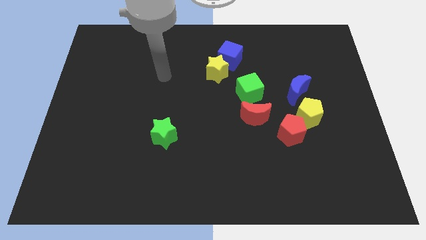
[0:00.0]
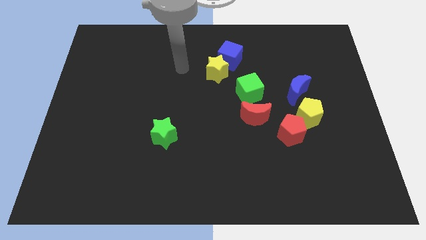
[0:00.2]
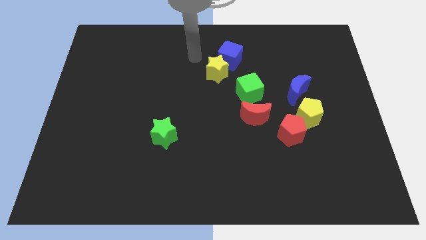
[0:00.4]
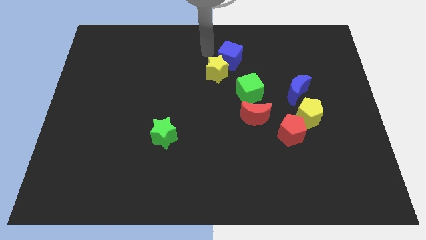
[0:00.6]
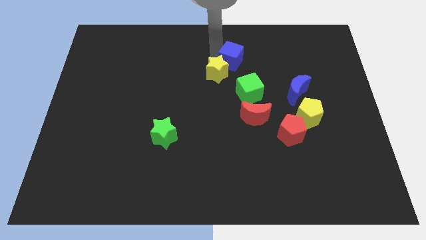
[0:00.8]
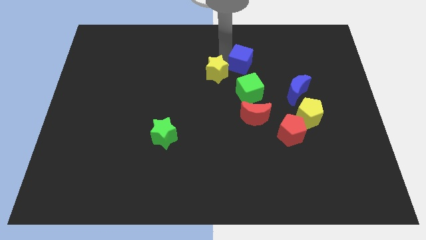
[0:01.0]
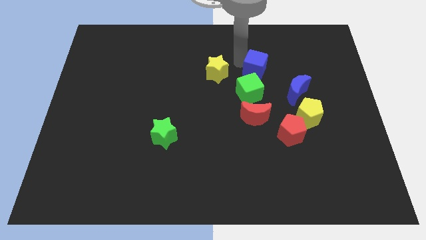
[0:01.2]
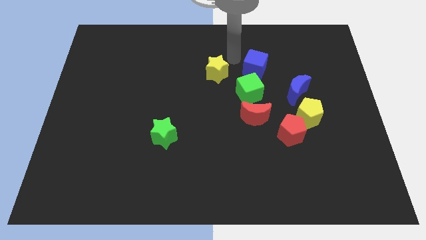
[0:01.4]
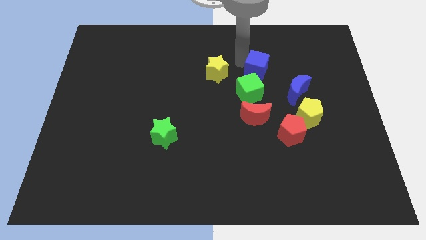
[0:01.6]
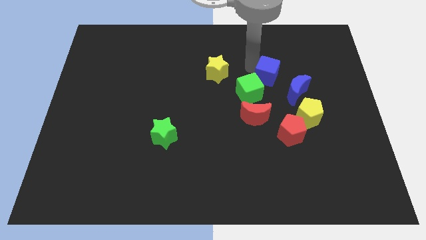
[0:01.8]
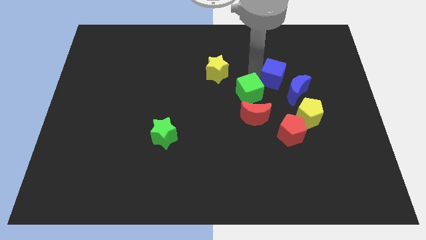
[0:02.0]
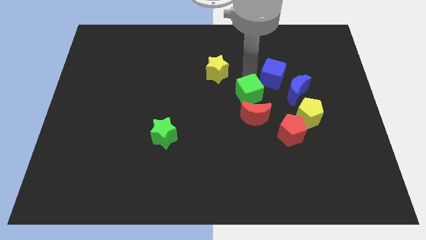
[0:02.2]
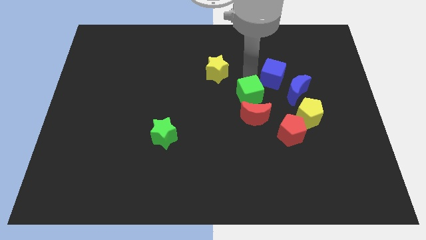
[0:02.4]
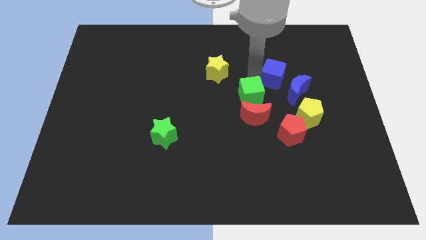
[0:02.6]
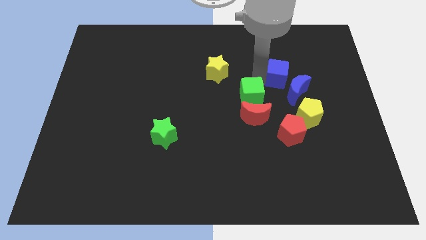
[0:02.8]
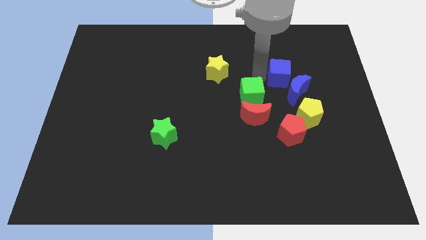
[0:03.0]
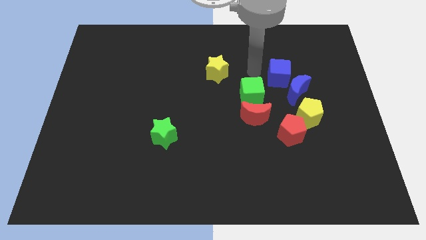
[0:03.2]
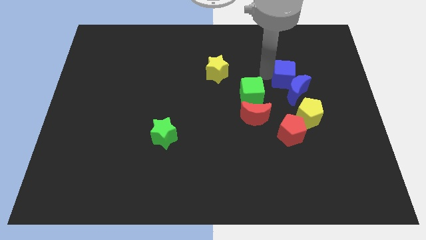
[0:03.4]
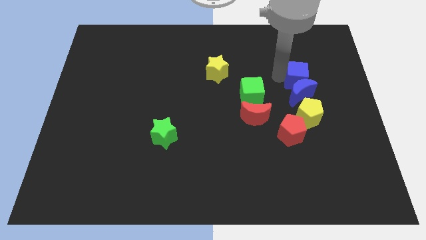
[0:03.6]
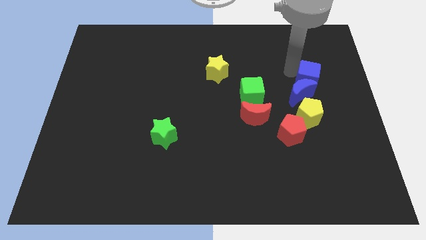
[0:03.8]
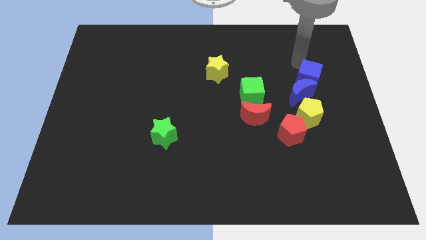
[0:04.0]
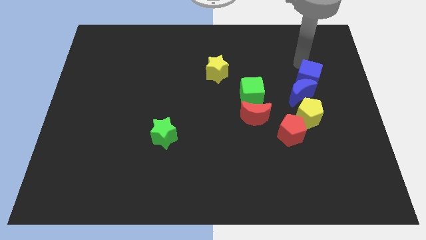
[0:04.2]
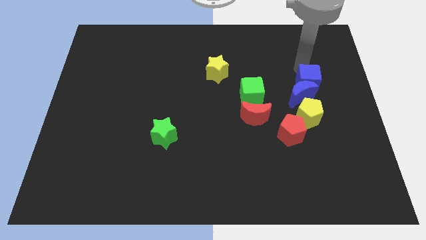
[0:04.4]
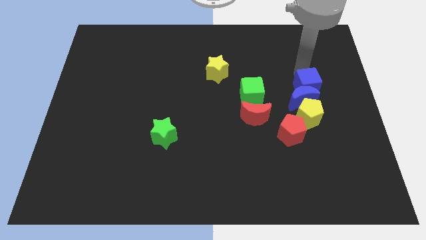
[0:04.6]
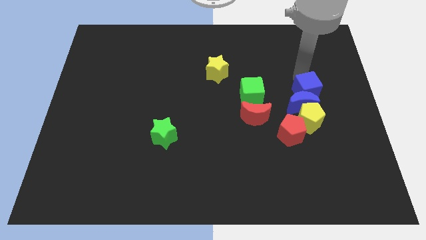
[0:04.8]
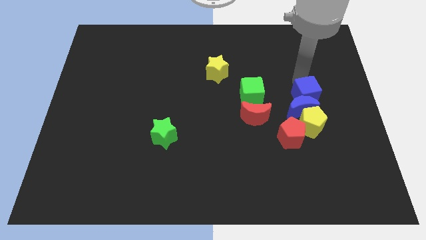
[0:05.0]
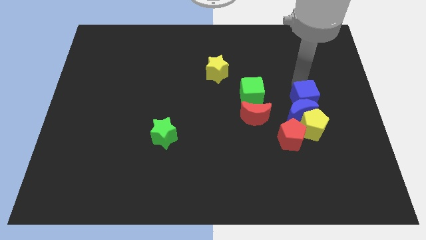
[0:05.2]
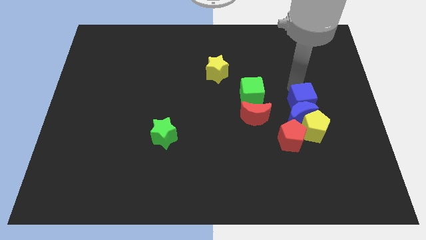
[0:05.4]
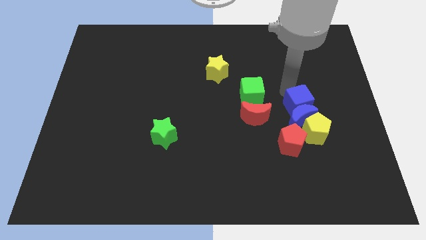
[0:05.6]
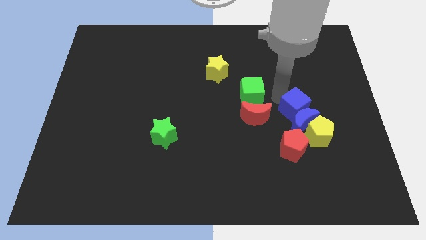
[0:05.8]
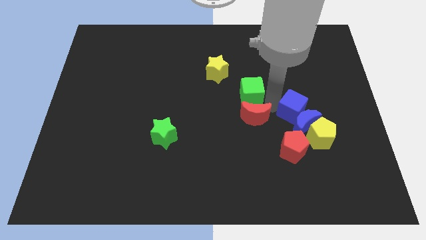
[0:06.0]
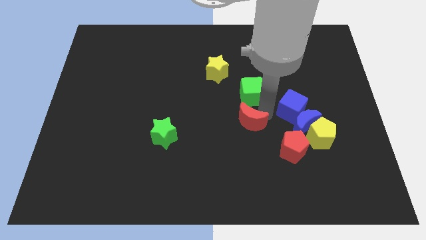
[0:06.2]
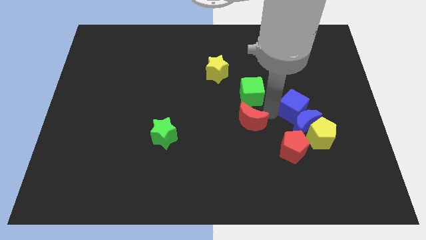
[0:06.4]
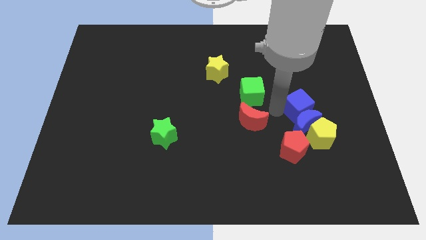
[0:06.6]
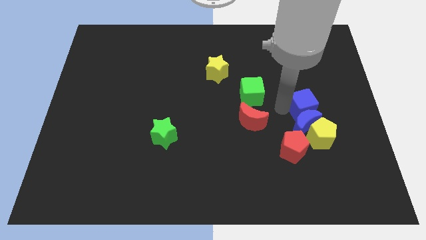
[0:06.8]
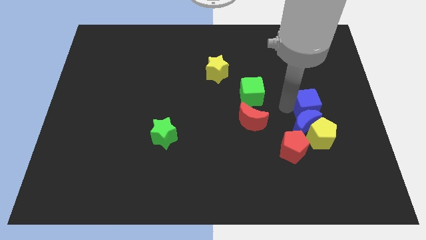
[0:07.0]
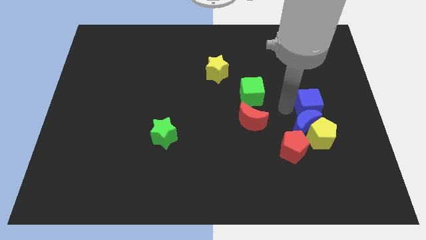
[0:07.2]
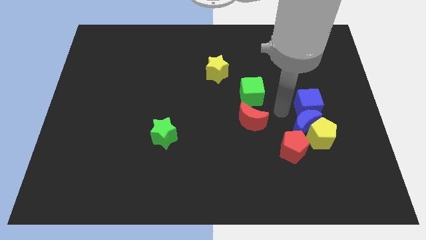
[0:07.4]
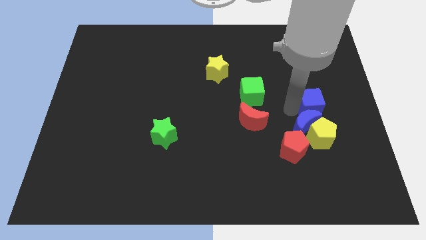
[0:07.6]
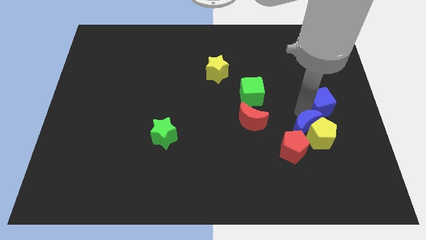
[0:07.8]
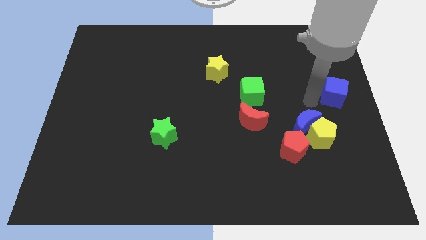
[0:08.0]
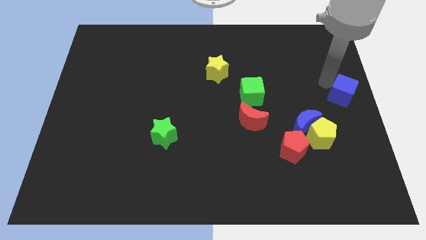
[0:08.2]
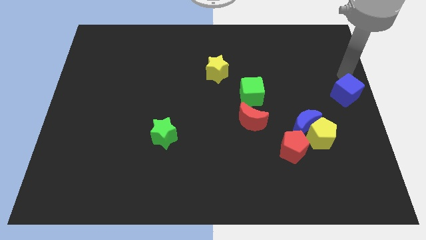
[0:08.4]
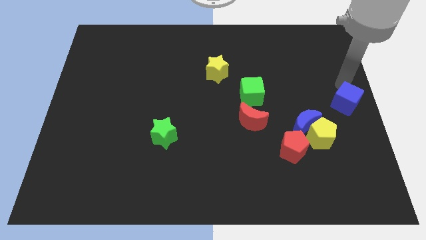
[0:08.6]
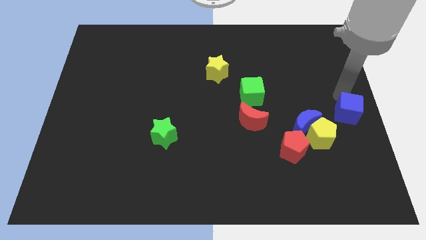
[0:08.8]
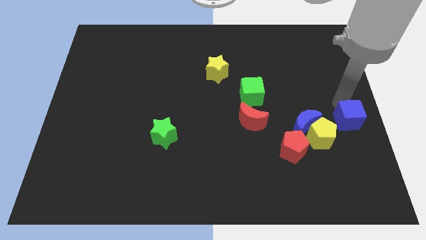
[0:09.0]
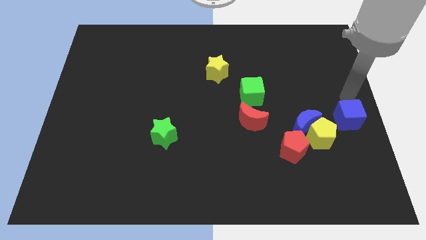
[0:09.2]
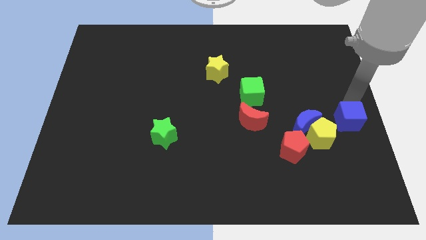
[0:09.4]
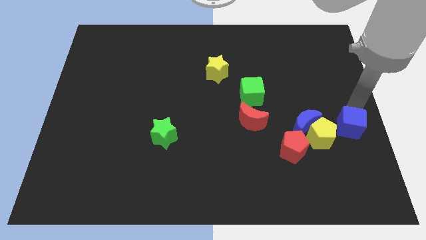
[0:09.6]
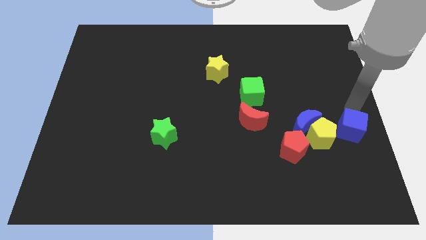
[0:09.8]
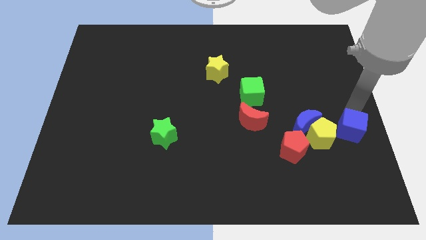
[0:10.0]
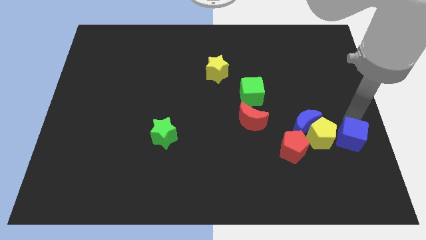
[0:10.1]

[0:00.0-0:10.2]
slide the blue cube diagonally down and to the right of the yellow pentagon

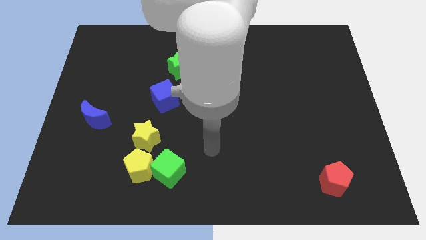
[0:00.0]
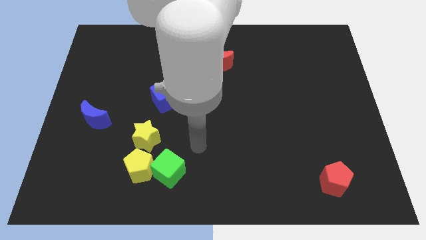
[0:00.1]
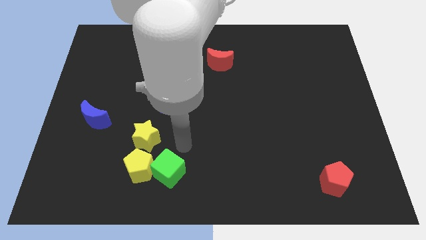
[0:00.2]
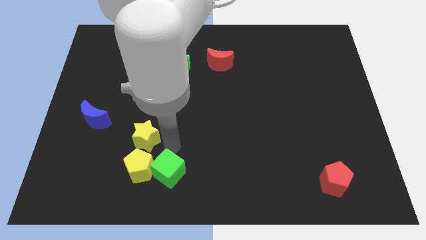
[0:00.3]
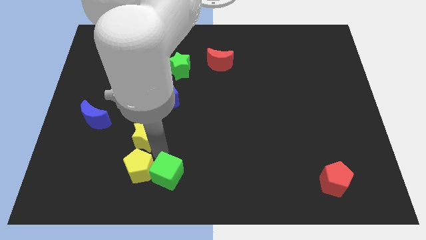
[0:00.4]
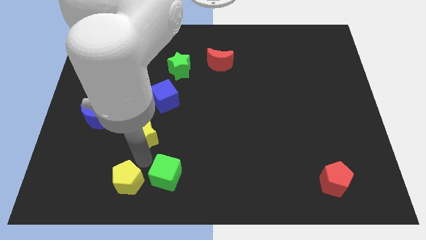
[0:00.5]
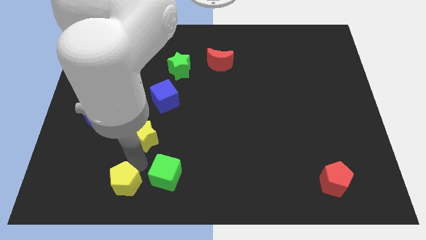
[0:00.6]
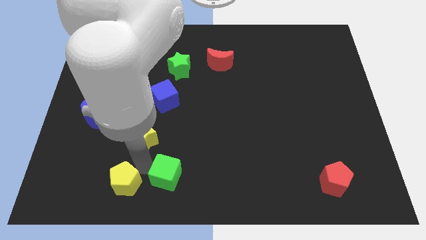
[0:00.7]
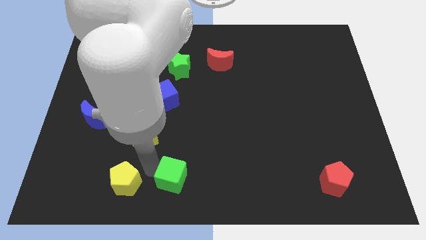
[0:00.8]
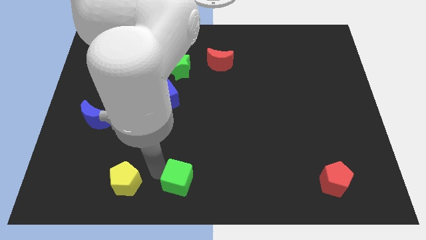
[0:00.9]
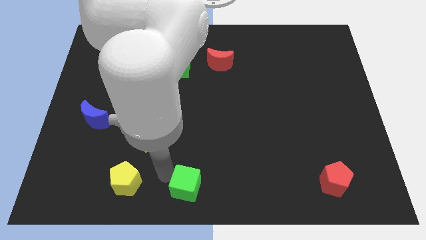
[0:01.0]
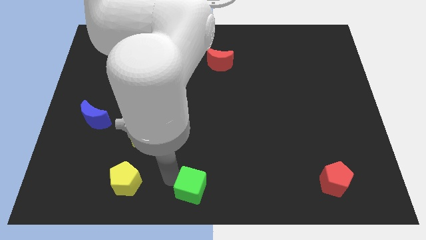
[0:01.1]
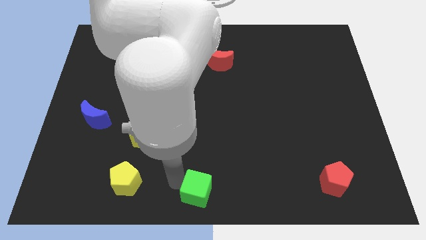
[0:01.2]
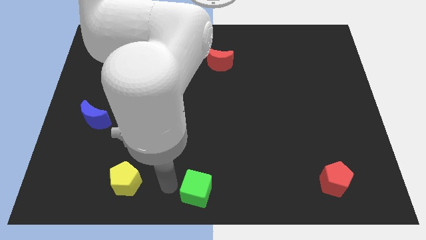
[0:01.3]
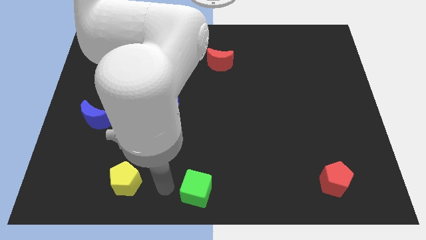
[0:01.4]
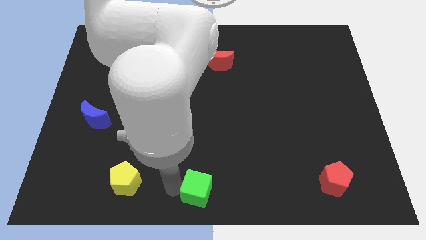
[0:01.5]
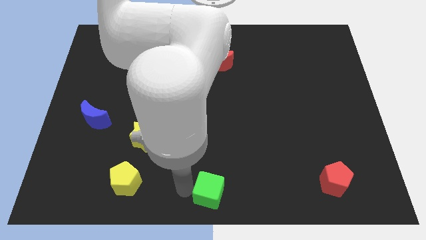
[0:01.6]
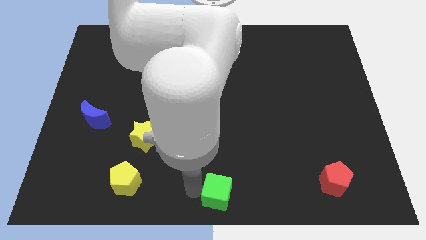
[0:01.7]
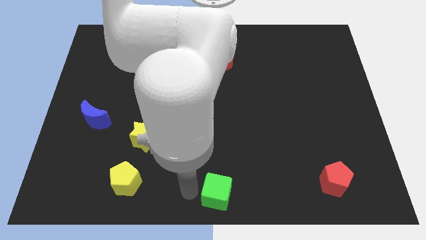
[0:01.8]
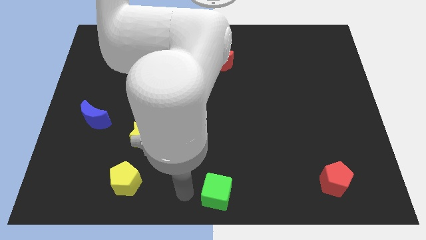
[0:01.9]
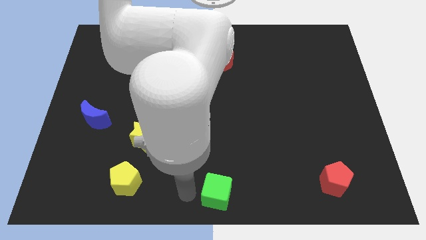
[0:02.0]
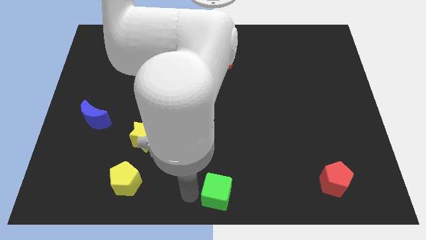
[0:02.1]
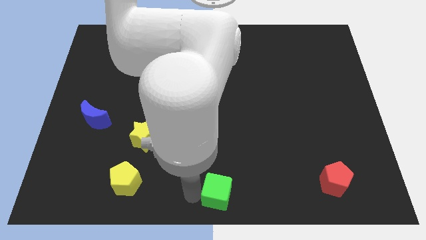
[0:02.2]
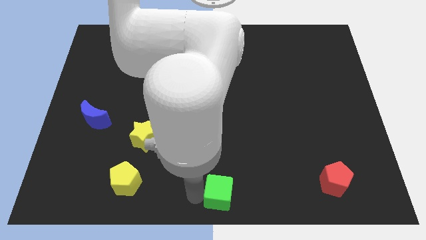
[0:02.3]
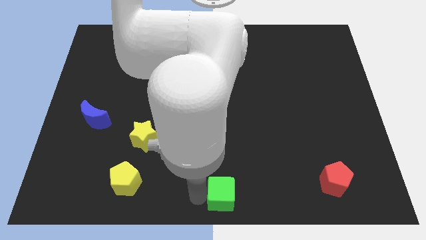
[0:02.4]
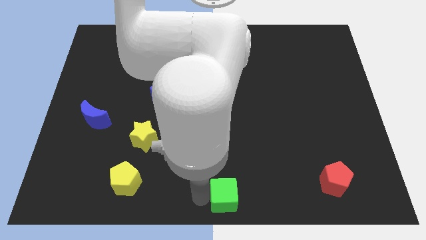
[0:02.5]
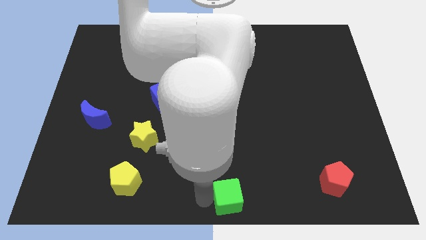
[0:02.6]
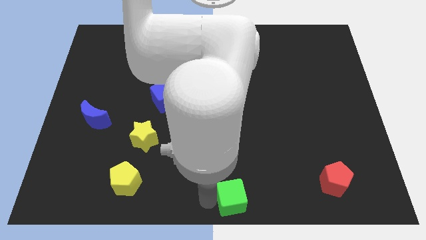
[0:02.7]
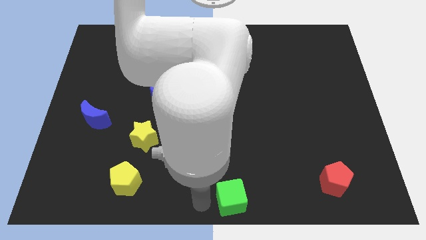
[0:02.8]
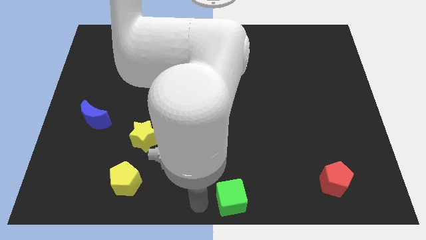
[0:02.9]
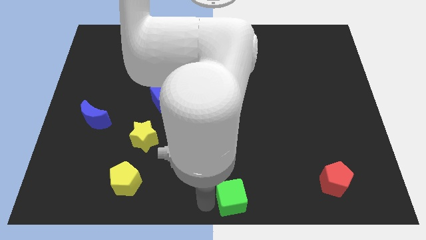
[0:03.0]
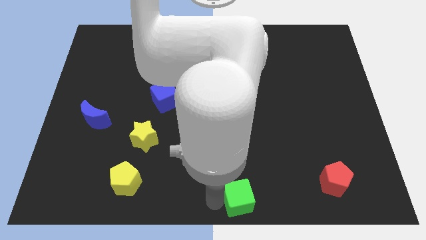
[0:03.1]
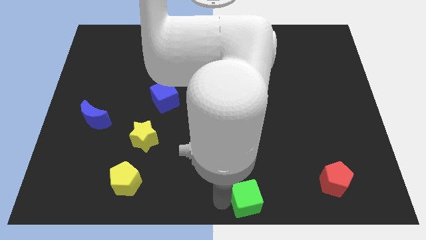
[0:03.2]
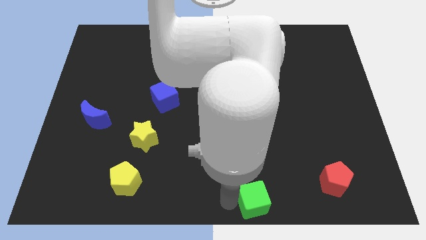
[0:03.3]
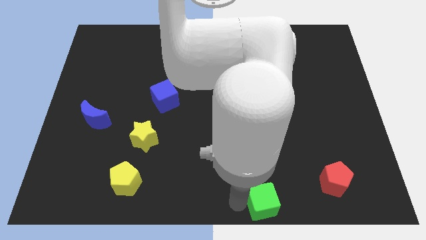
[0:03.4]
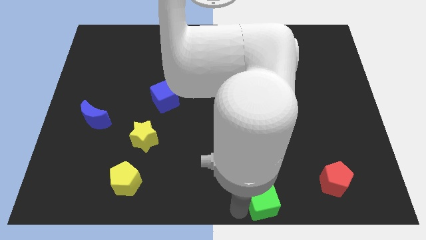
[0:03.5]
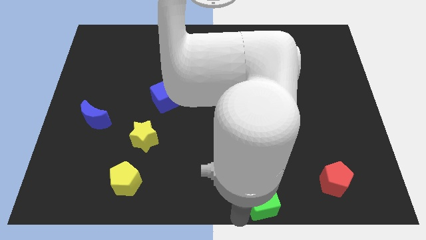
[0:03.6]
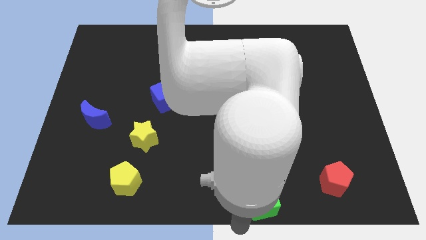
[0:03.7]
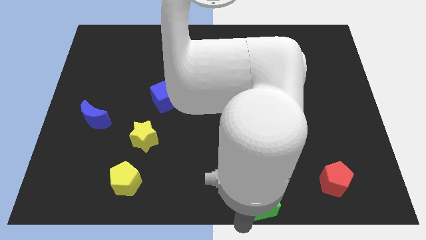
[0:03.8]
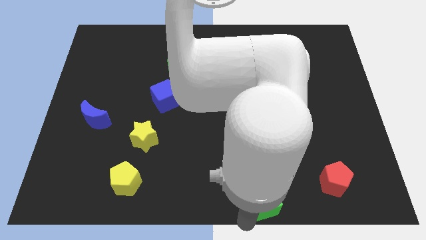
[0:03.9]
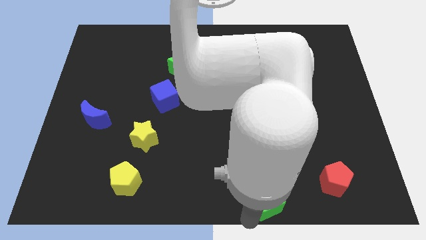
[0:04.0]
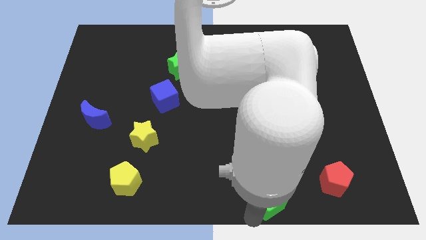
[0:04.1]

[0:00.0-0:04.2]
put the green cube to the left of the red pentagon
